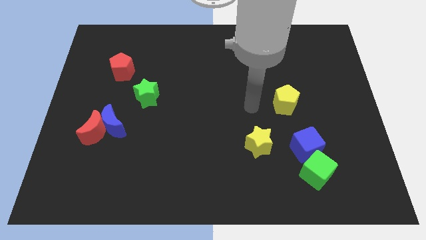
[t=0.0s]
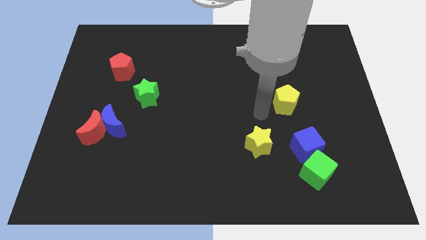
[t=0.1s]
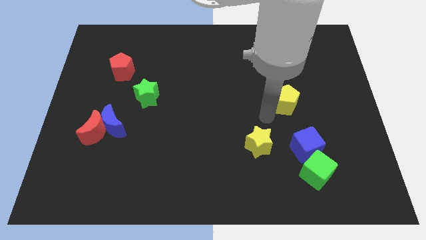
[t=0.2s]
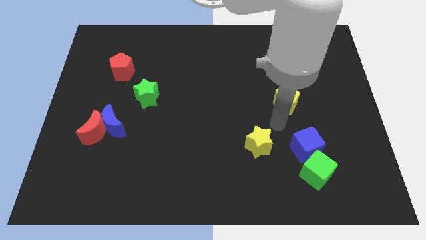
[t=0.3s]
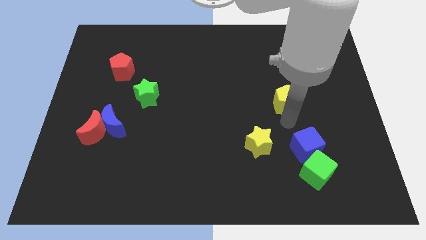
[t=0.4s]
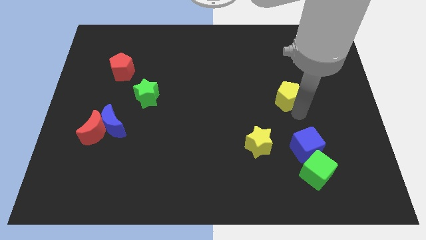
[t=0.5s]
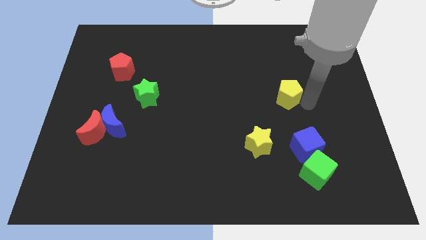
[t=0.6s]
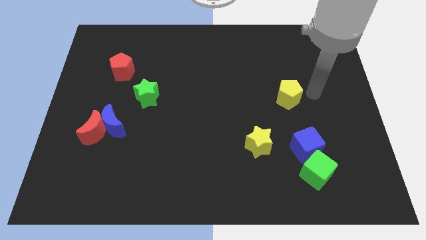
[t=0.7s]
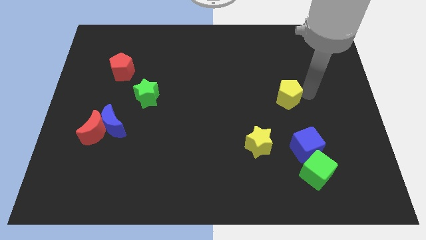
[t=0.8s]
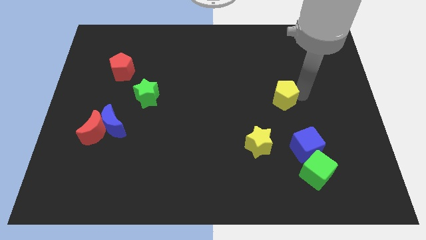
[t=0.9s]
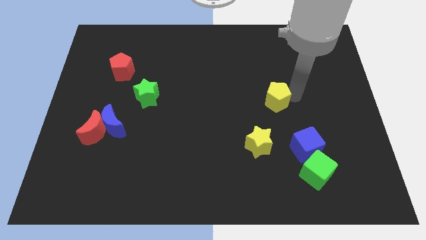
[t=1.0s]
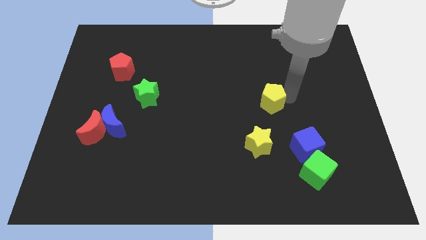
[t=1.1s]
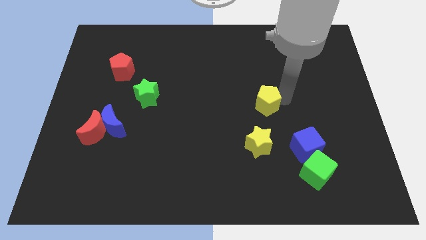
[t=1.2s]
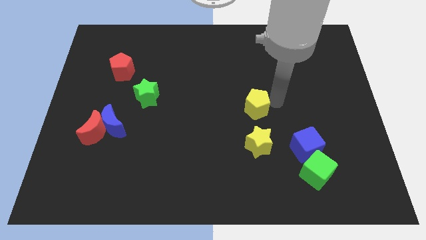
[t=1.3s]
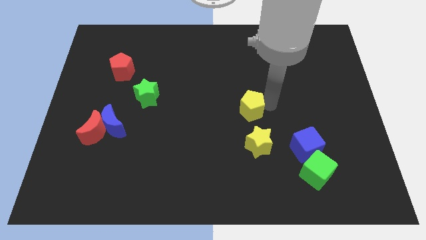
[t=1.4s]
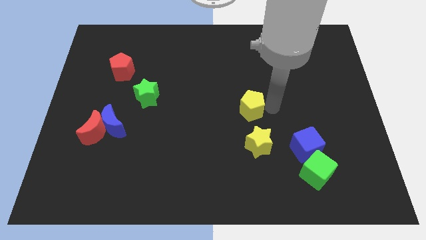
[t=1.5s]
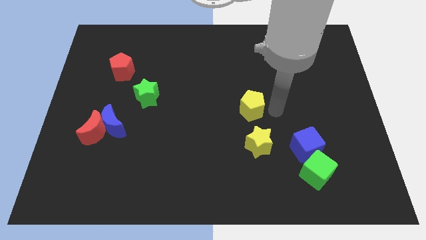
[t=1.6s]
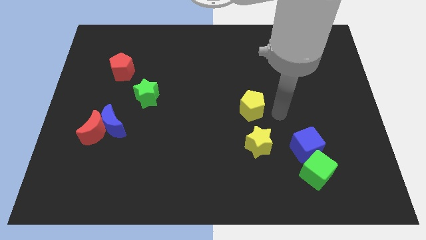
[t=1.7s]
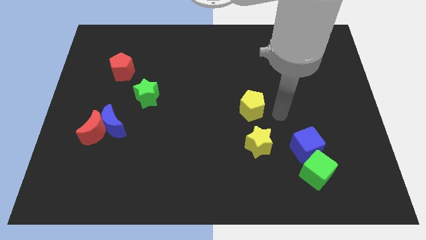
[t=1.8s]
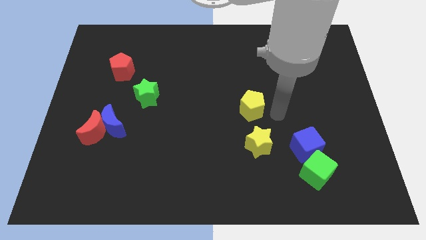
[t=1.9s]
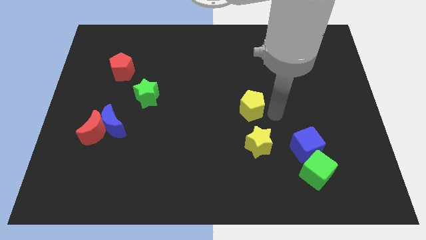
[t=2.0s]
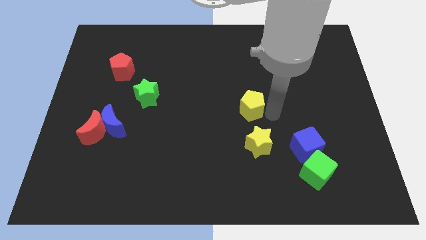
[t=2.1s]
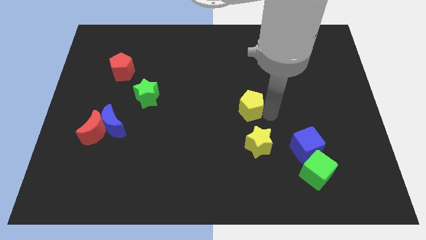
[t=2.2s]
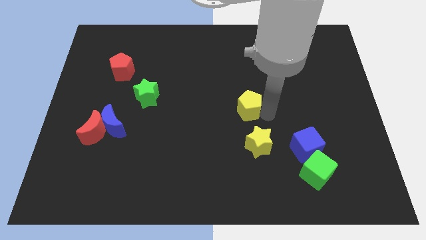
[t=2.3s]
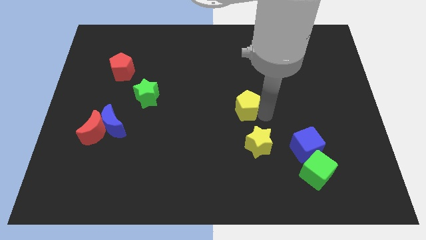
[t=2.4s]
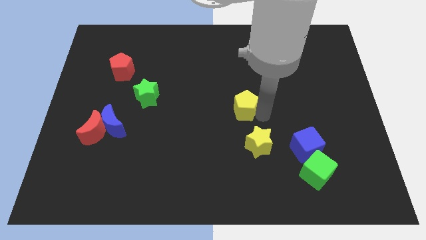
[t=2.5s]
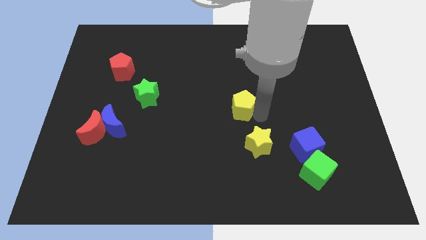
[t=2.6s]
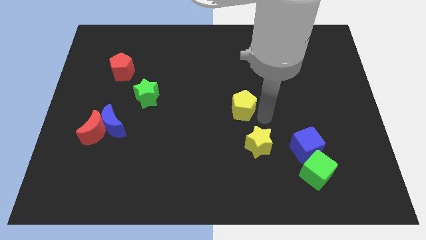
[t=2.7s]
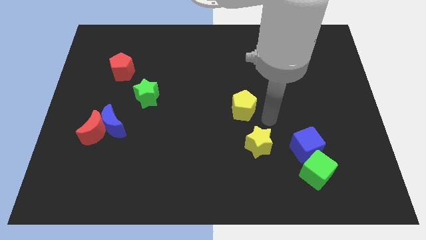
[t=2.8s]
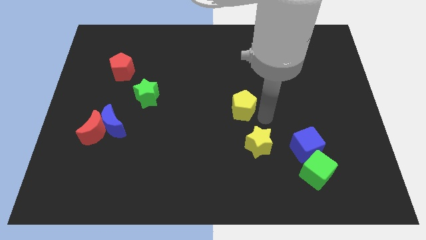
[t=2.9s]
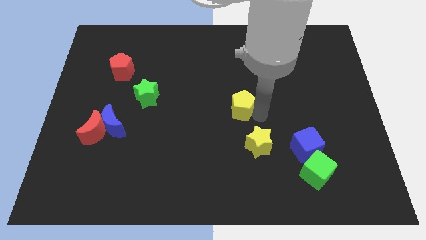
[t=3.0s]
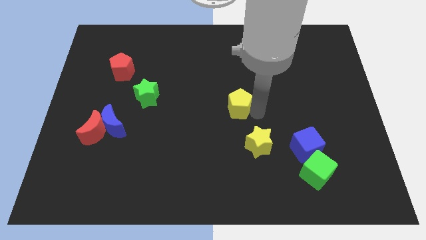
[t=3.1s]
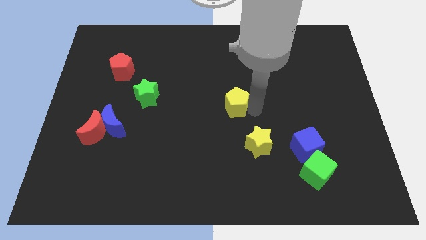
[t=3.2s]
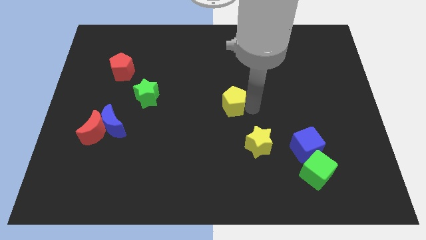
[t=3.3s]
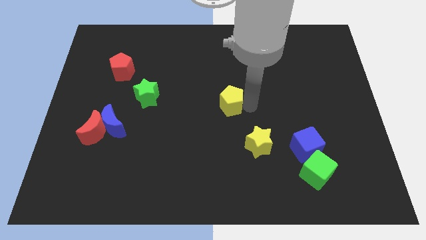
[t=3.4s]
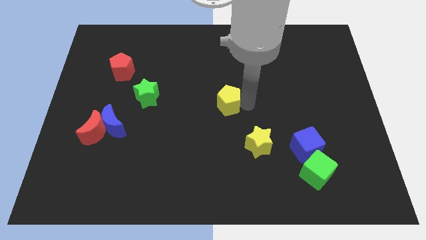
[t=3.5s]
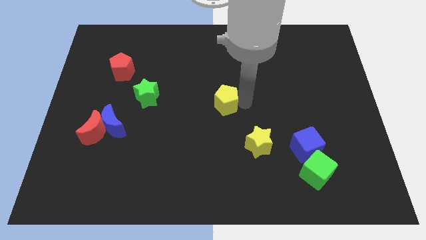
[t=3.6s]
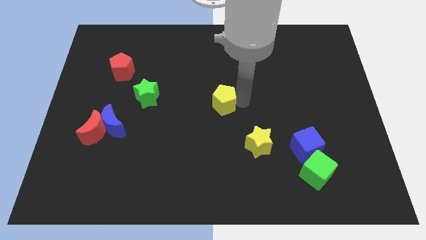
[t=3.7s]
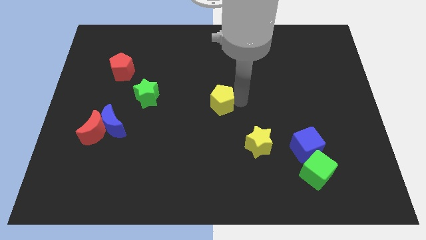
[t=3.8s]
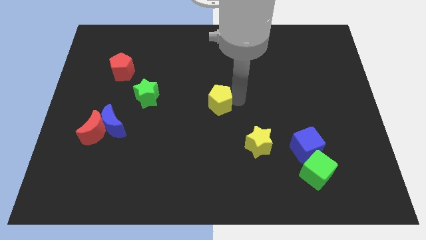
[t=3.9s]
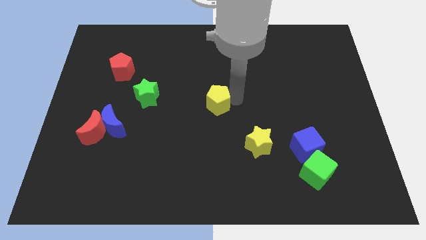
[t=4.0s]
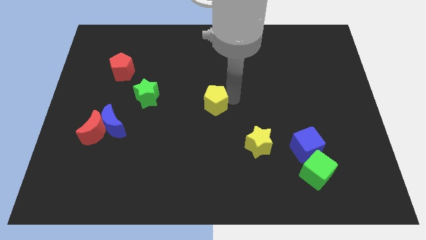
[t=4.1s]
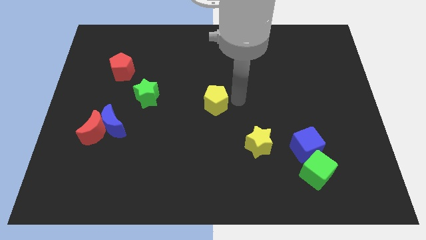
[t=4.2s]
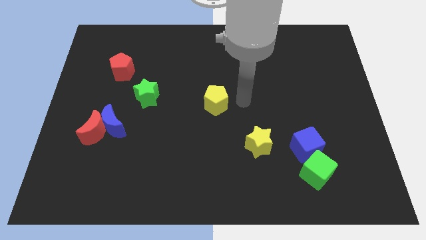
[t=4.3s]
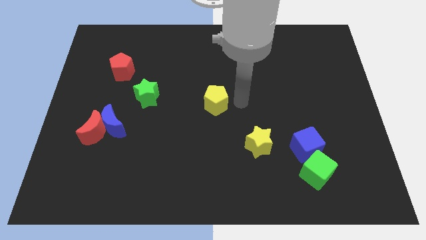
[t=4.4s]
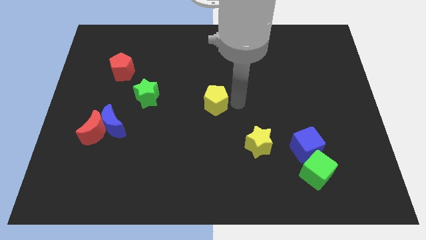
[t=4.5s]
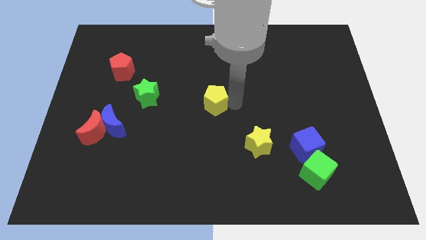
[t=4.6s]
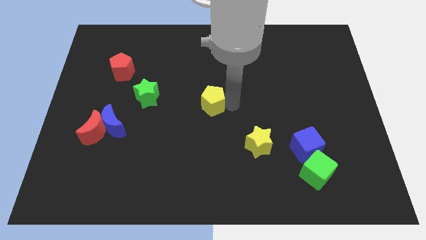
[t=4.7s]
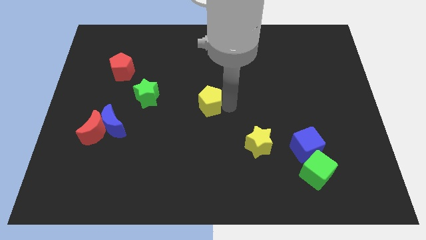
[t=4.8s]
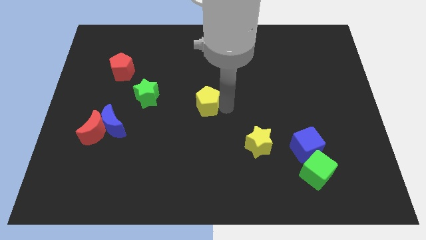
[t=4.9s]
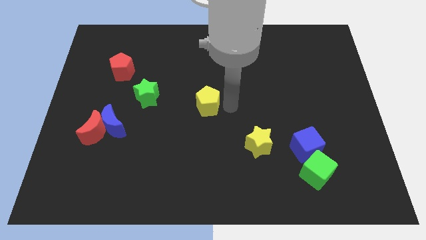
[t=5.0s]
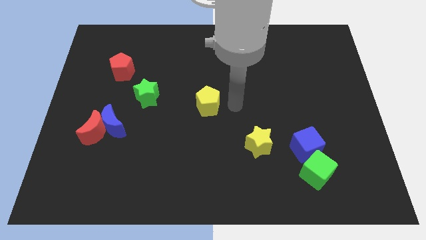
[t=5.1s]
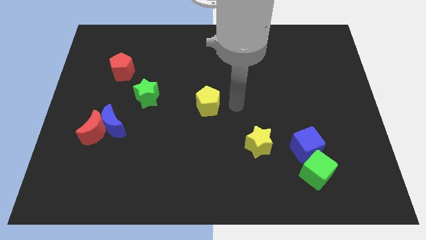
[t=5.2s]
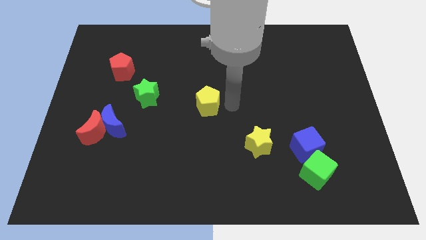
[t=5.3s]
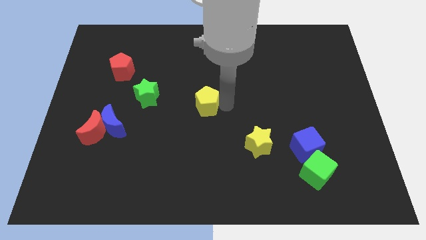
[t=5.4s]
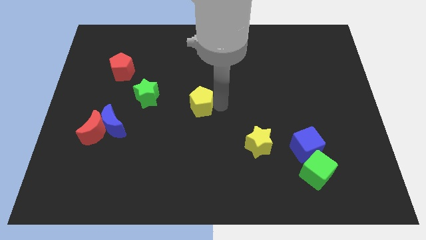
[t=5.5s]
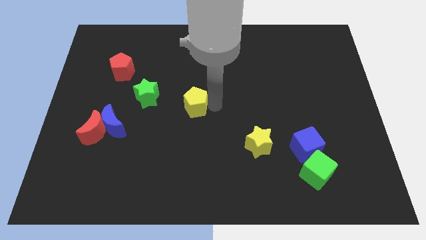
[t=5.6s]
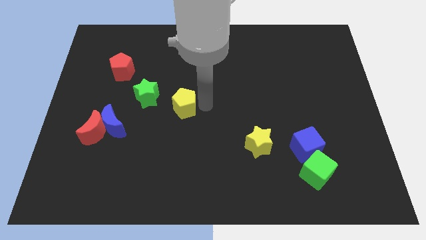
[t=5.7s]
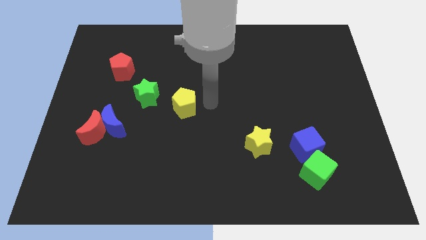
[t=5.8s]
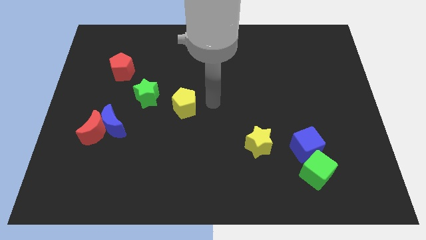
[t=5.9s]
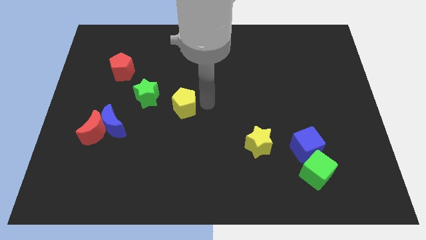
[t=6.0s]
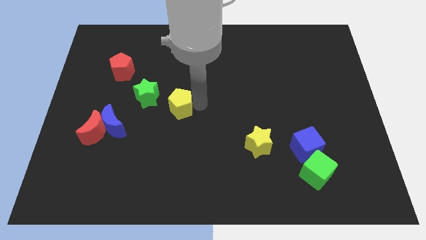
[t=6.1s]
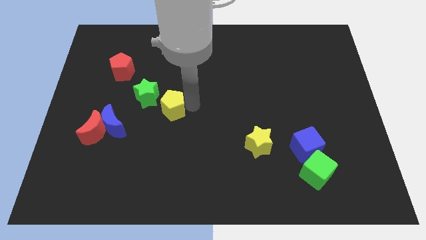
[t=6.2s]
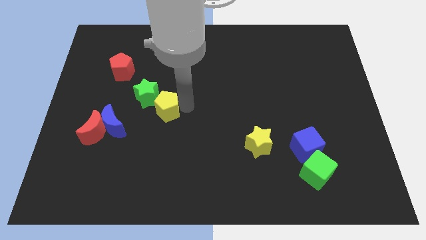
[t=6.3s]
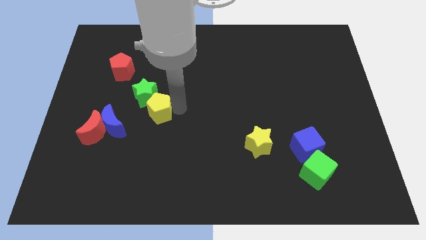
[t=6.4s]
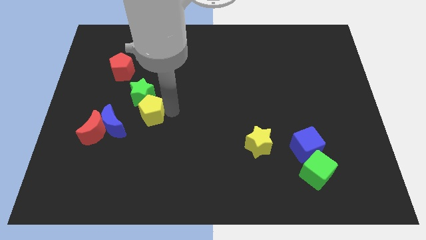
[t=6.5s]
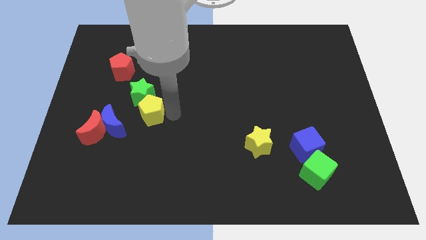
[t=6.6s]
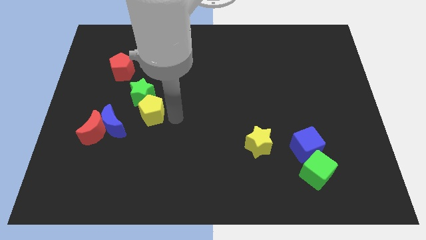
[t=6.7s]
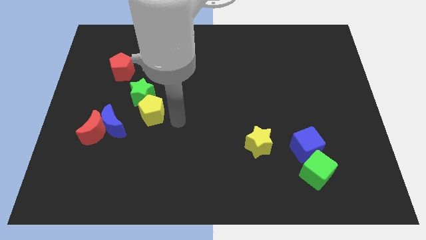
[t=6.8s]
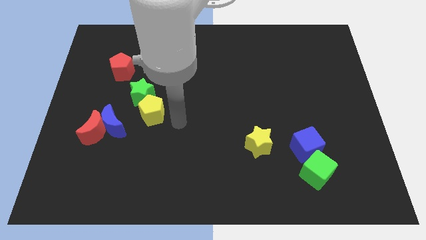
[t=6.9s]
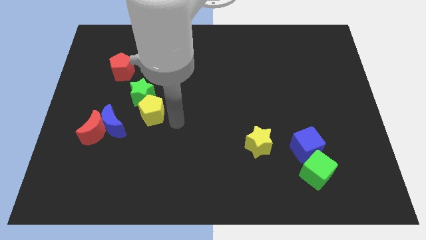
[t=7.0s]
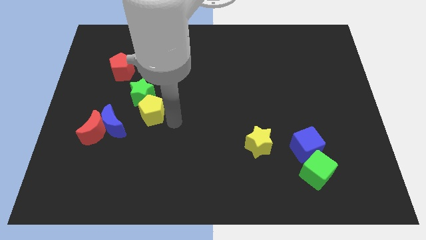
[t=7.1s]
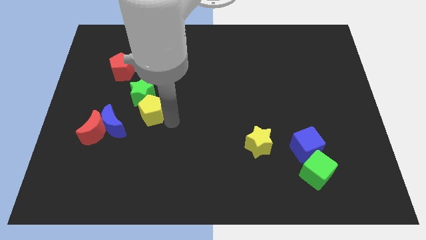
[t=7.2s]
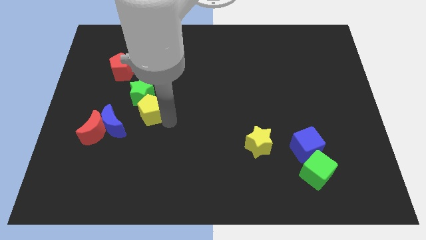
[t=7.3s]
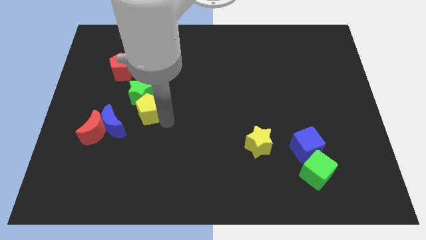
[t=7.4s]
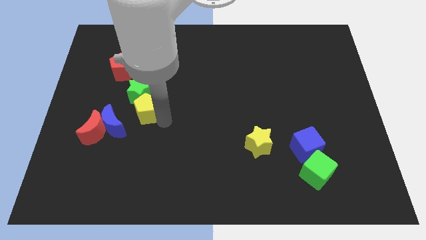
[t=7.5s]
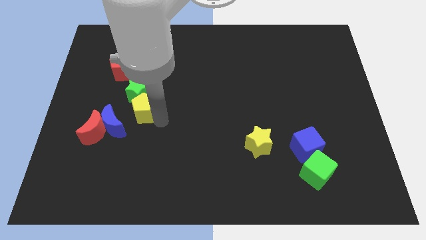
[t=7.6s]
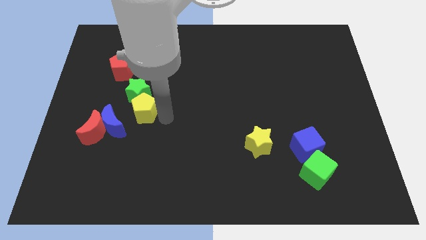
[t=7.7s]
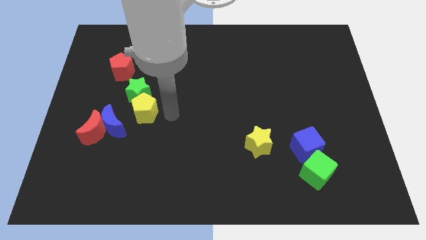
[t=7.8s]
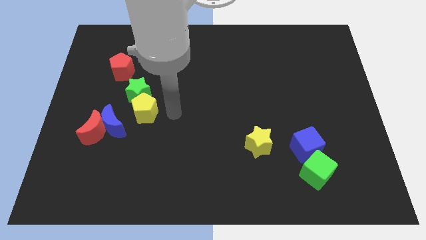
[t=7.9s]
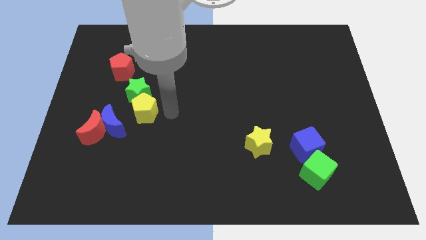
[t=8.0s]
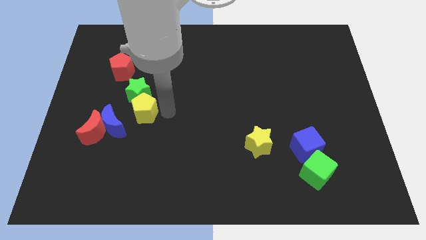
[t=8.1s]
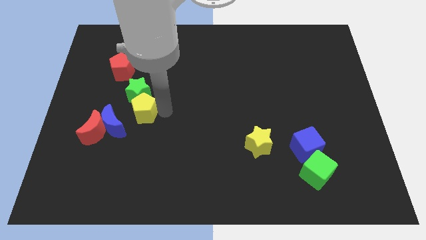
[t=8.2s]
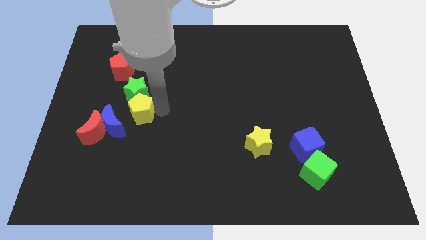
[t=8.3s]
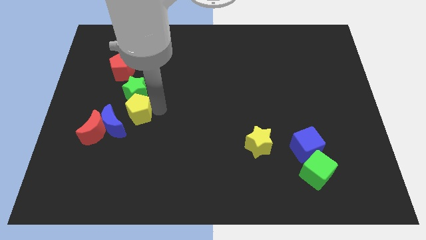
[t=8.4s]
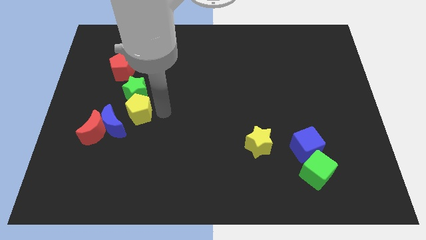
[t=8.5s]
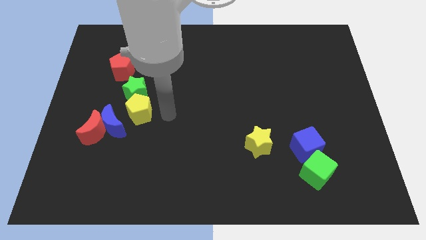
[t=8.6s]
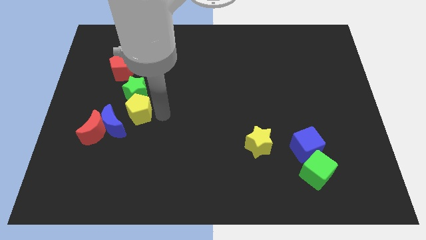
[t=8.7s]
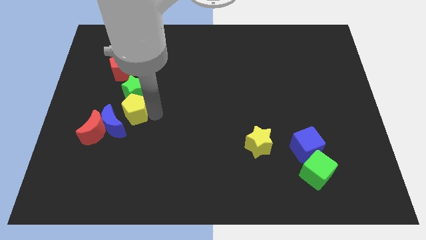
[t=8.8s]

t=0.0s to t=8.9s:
slide the yellow pentagon to the bottom left side of the green star
